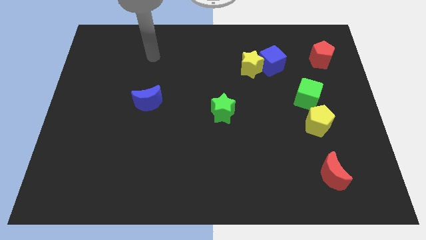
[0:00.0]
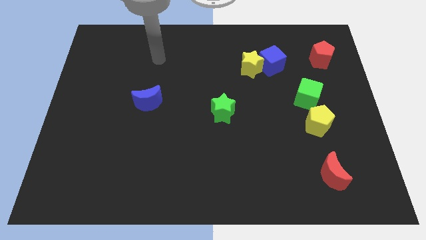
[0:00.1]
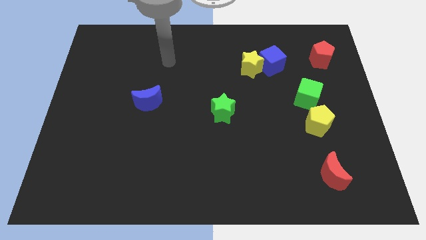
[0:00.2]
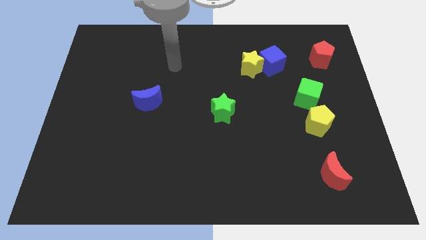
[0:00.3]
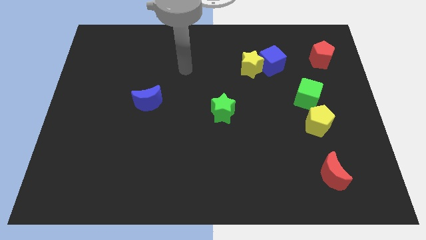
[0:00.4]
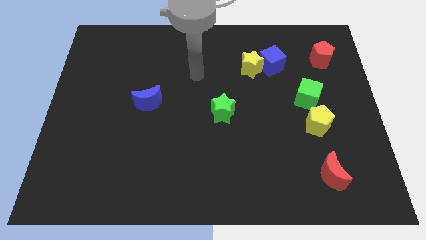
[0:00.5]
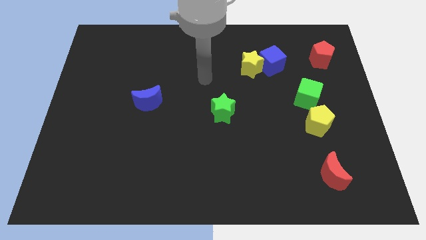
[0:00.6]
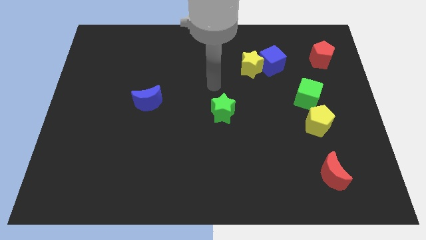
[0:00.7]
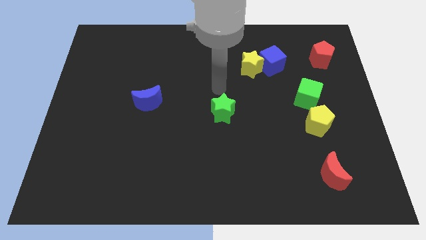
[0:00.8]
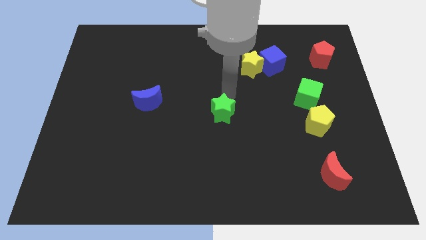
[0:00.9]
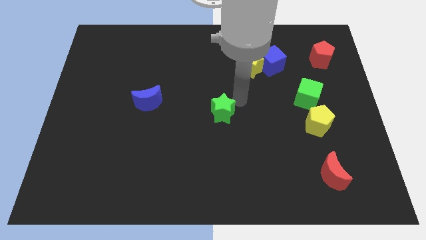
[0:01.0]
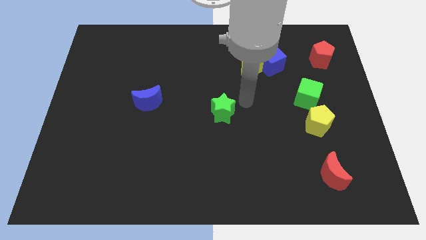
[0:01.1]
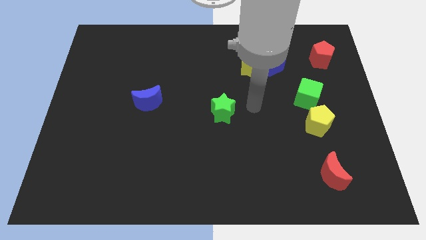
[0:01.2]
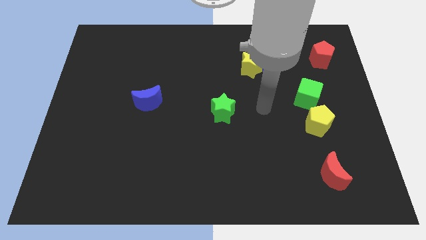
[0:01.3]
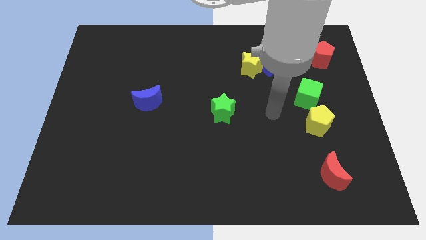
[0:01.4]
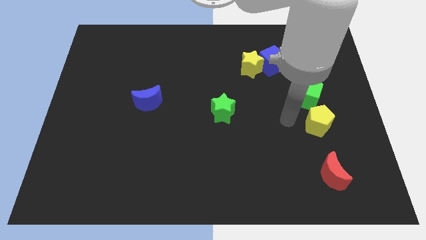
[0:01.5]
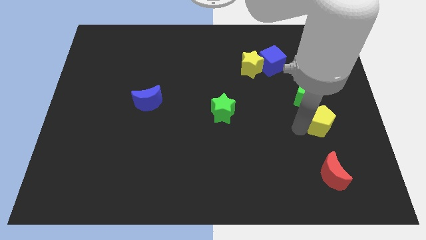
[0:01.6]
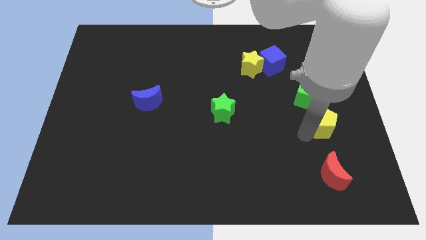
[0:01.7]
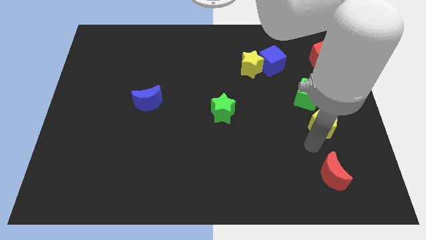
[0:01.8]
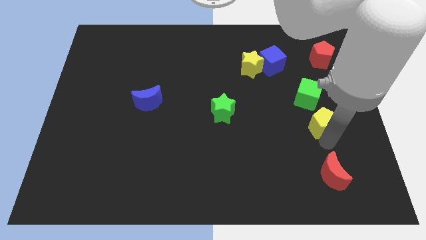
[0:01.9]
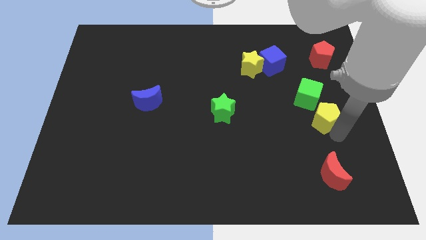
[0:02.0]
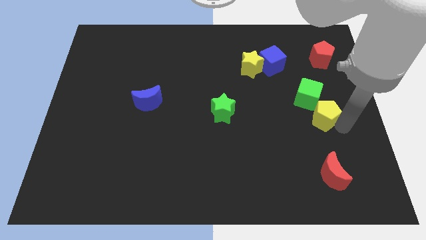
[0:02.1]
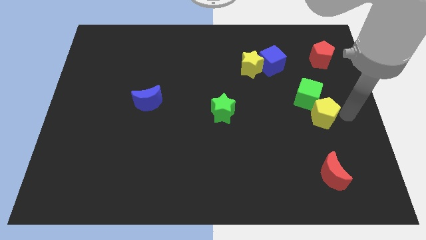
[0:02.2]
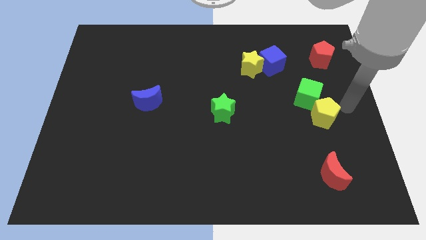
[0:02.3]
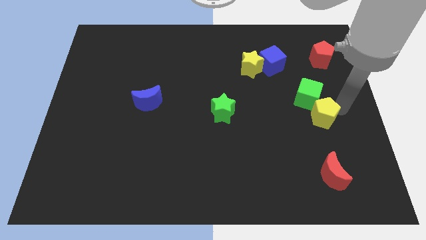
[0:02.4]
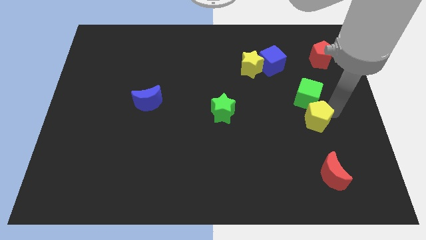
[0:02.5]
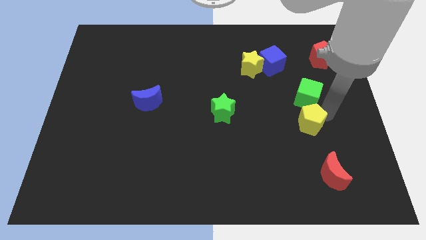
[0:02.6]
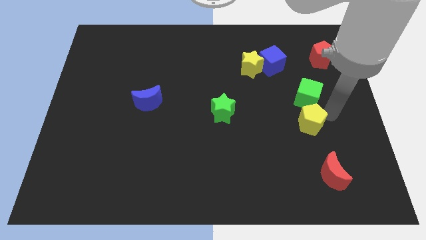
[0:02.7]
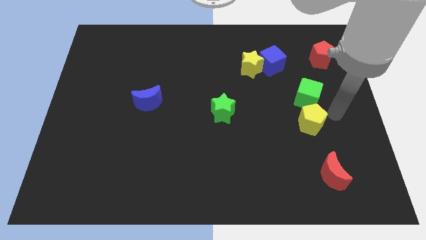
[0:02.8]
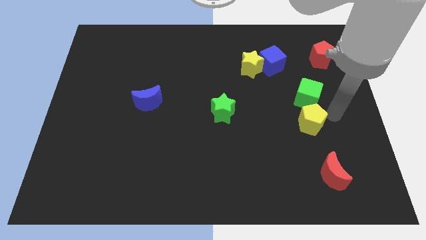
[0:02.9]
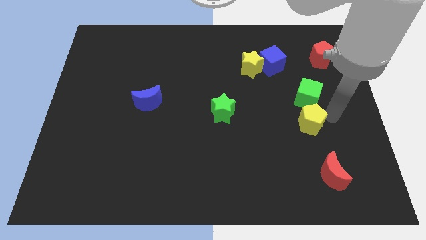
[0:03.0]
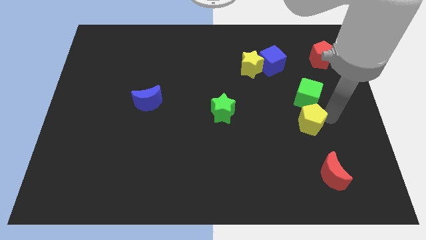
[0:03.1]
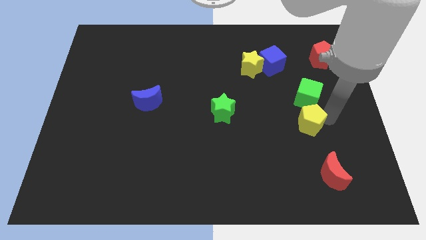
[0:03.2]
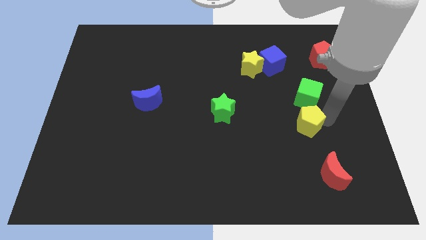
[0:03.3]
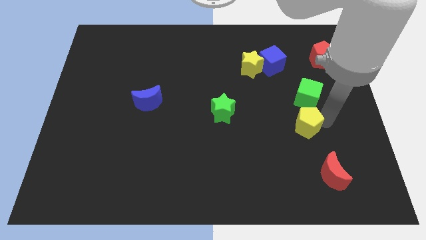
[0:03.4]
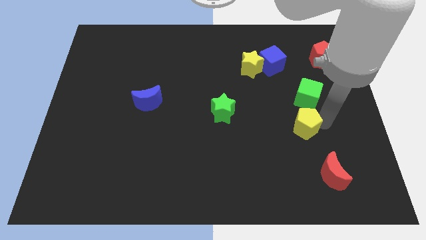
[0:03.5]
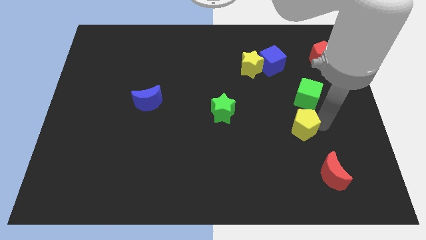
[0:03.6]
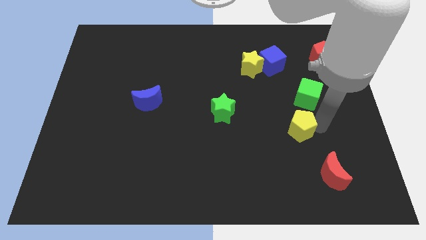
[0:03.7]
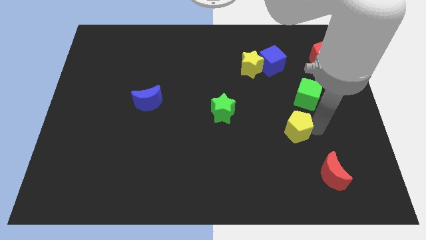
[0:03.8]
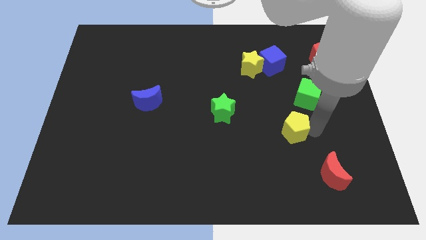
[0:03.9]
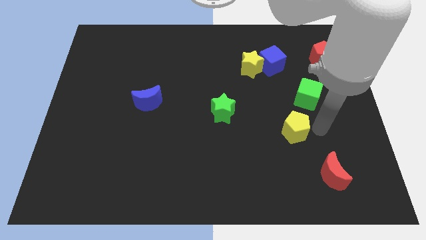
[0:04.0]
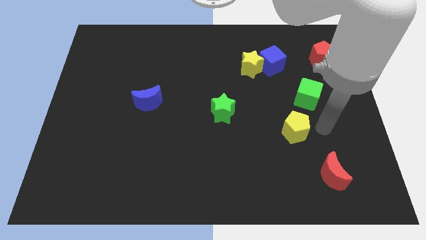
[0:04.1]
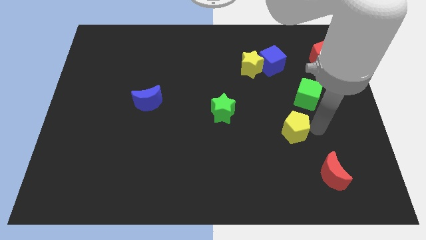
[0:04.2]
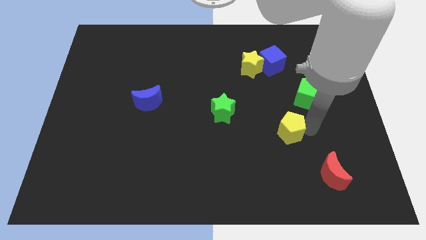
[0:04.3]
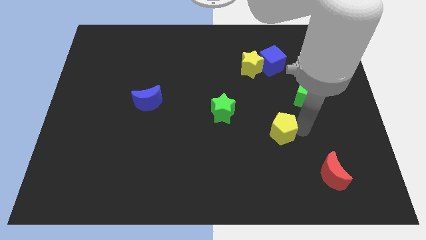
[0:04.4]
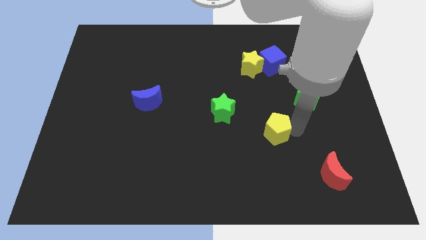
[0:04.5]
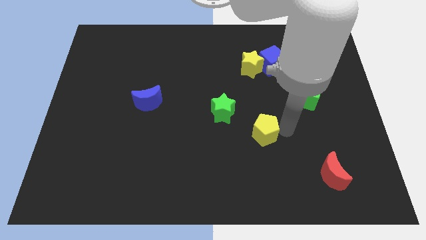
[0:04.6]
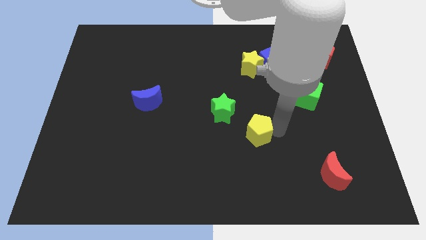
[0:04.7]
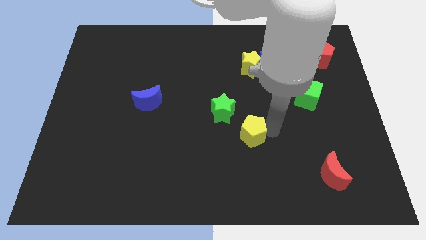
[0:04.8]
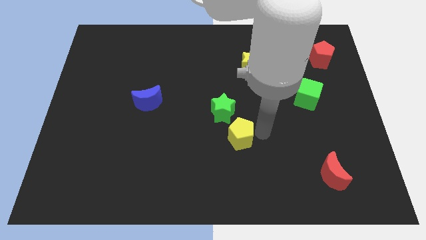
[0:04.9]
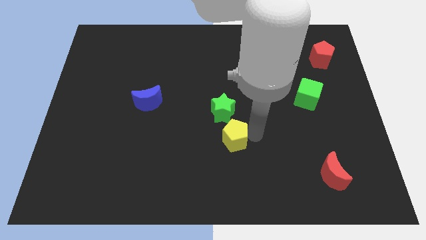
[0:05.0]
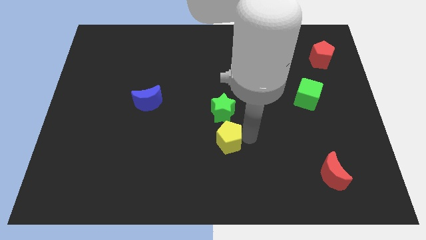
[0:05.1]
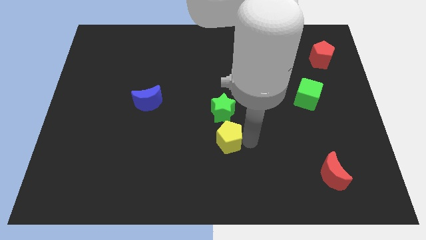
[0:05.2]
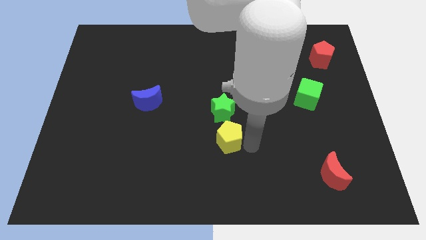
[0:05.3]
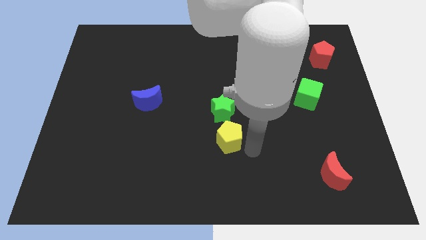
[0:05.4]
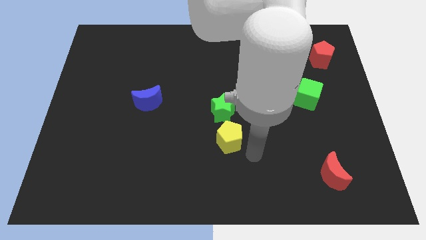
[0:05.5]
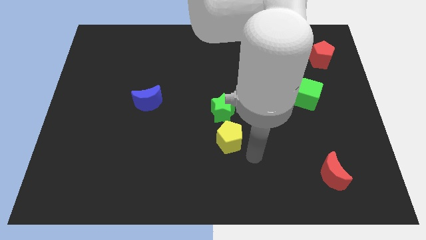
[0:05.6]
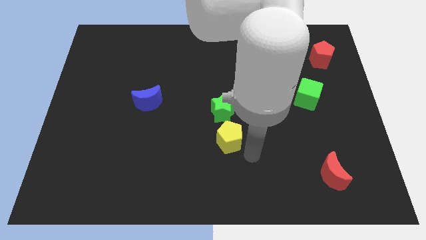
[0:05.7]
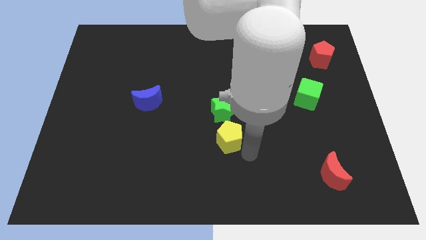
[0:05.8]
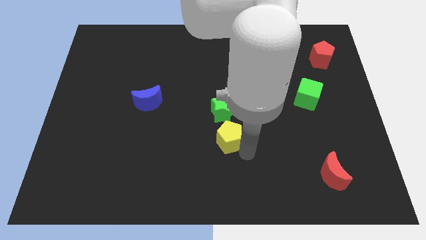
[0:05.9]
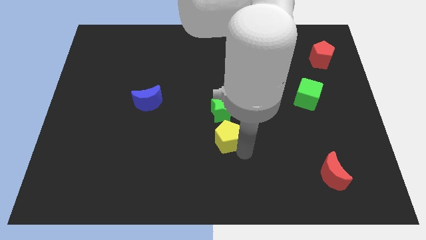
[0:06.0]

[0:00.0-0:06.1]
push the yellow pentagon left

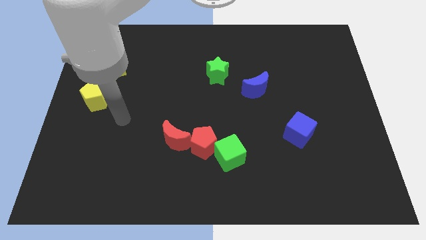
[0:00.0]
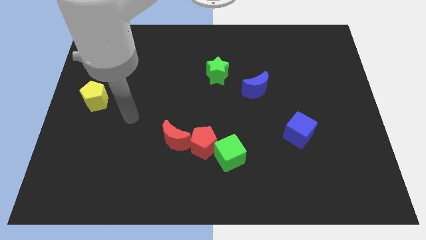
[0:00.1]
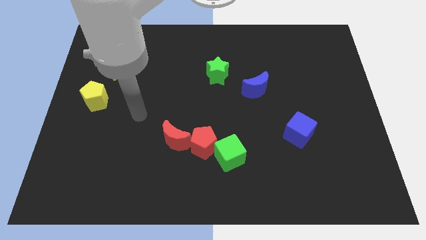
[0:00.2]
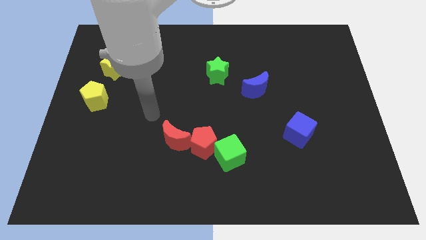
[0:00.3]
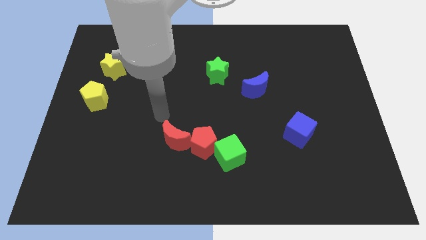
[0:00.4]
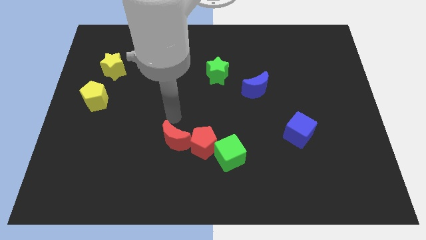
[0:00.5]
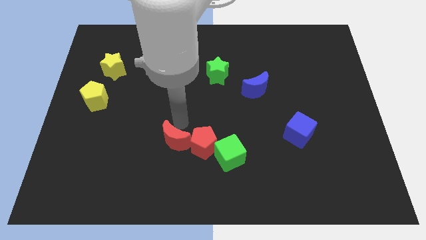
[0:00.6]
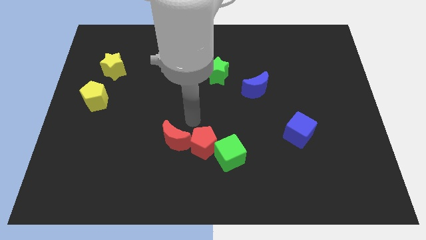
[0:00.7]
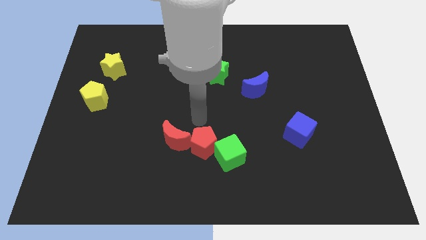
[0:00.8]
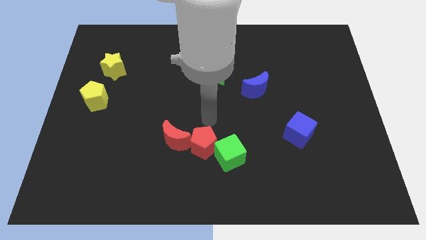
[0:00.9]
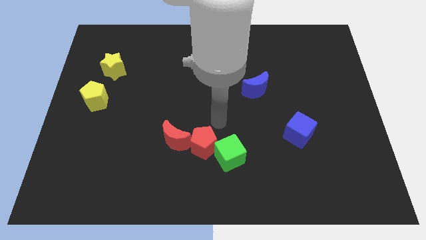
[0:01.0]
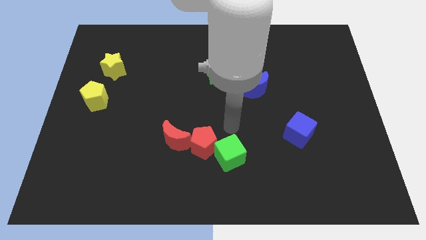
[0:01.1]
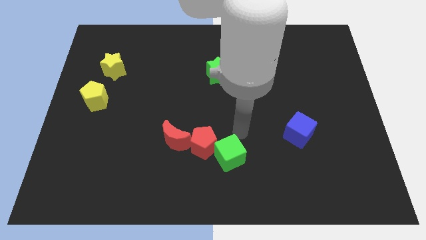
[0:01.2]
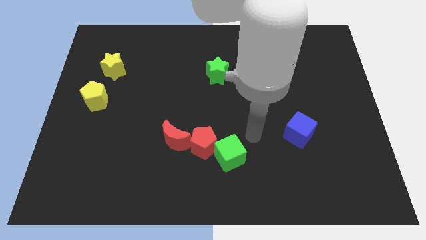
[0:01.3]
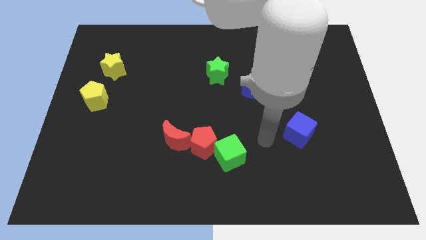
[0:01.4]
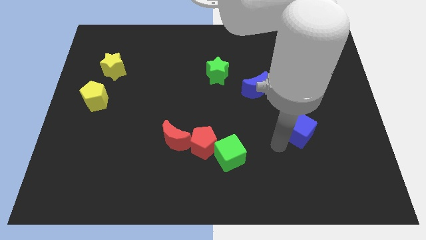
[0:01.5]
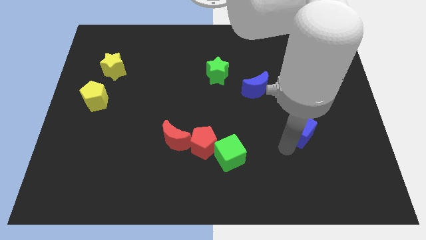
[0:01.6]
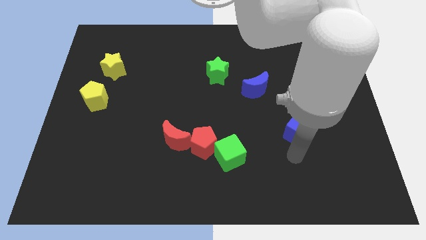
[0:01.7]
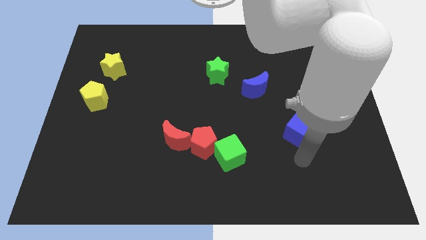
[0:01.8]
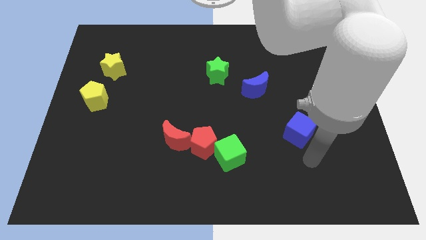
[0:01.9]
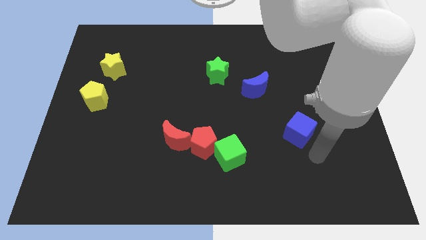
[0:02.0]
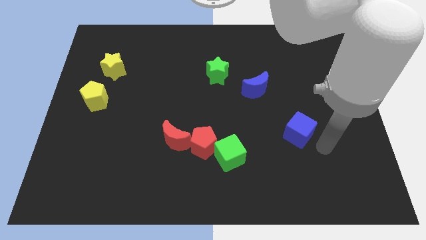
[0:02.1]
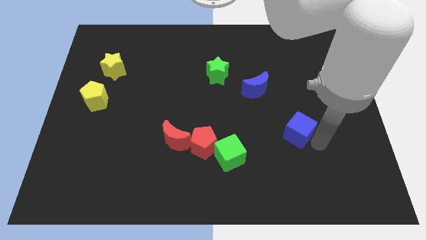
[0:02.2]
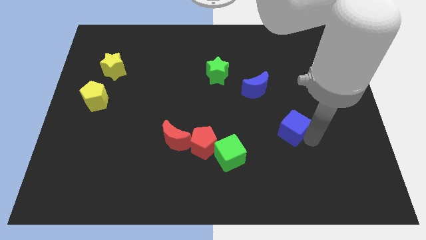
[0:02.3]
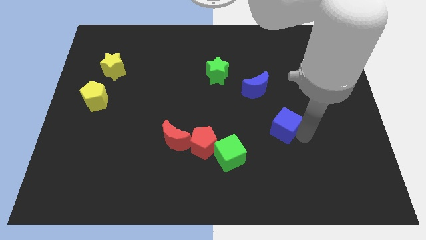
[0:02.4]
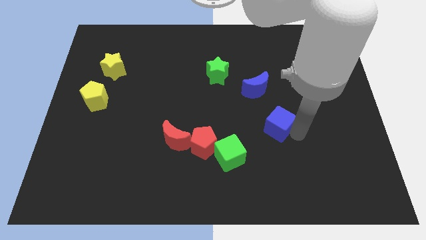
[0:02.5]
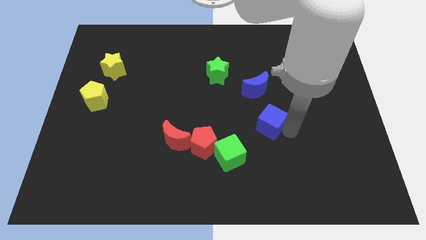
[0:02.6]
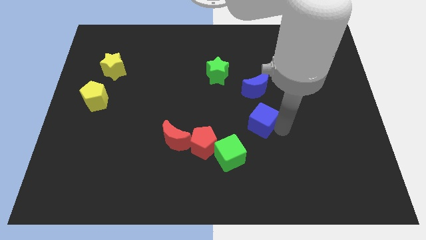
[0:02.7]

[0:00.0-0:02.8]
slide the blue cube somewhat upwards and to the left diagonally
